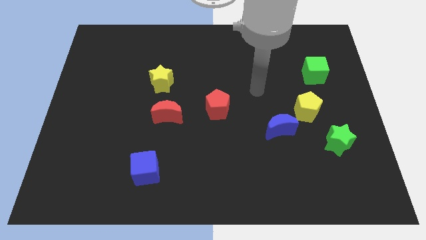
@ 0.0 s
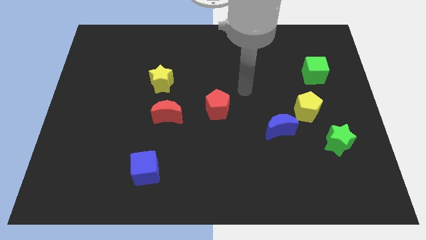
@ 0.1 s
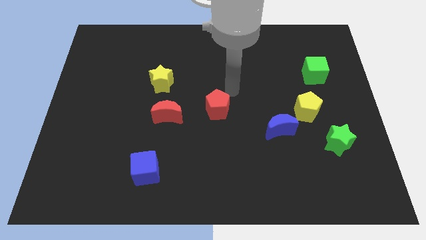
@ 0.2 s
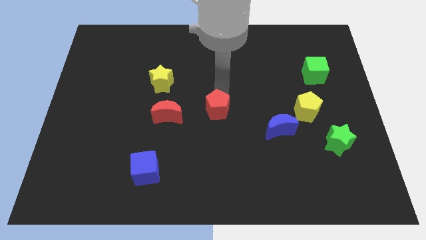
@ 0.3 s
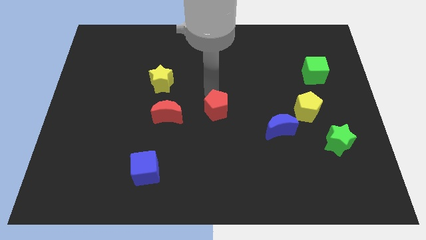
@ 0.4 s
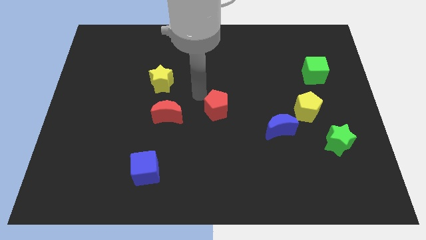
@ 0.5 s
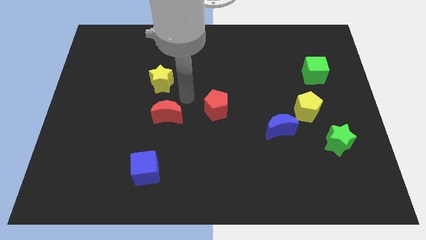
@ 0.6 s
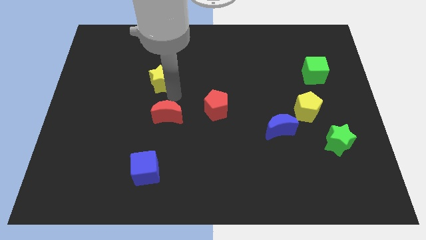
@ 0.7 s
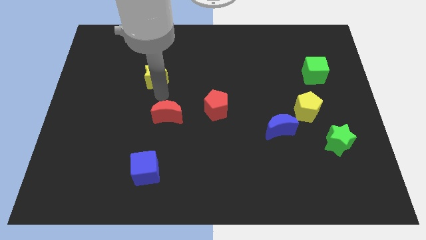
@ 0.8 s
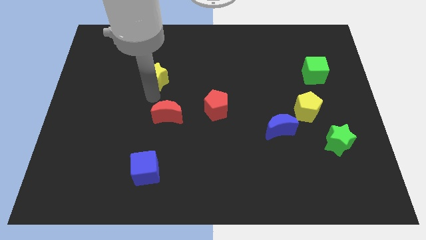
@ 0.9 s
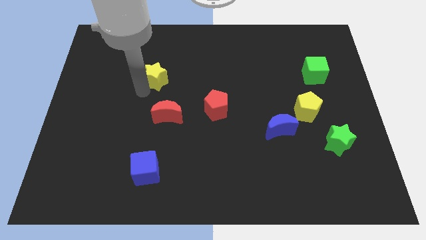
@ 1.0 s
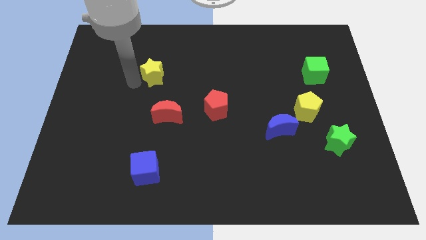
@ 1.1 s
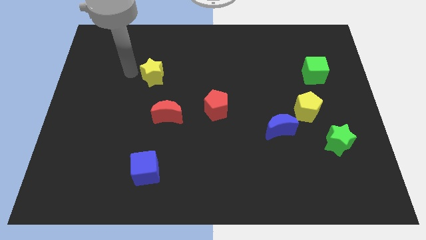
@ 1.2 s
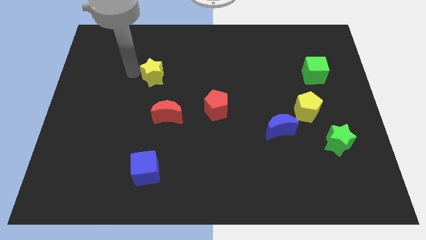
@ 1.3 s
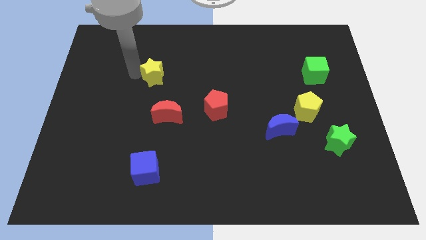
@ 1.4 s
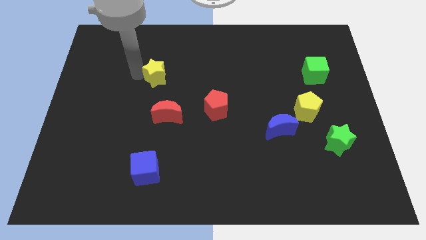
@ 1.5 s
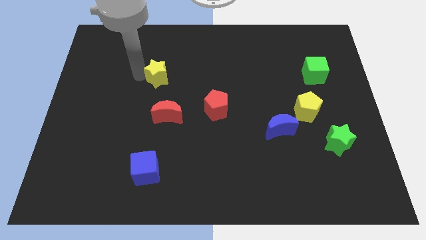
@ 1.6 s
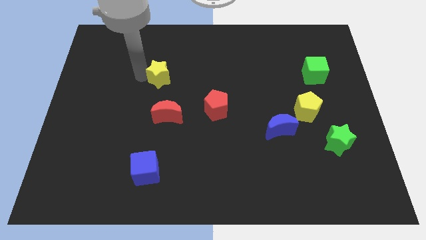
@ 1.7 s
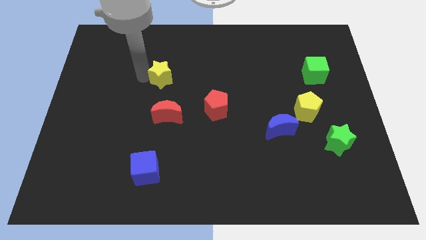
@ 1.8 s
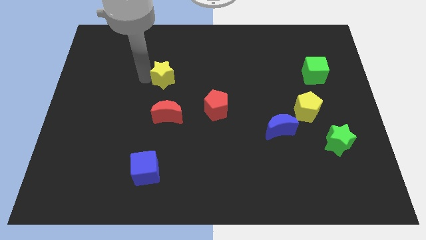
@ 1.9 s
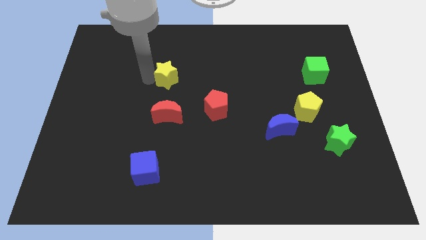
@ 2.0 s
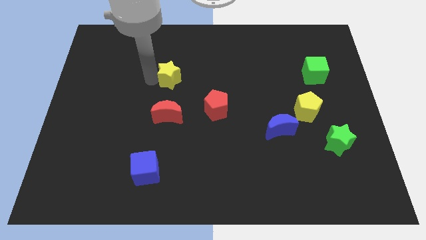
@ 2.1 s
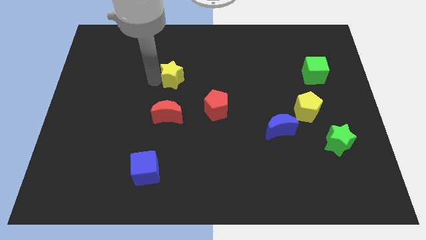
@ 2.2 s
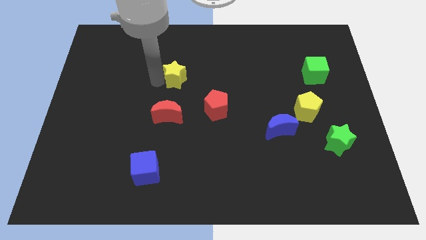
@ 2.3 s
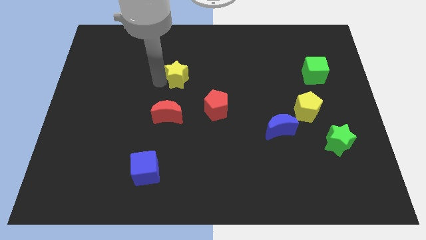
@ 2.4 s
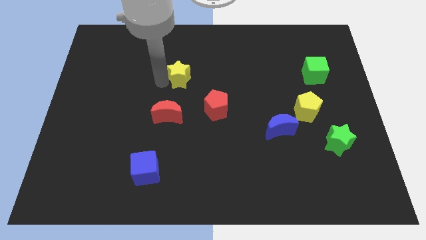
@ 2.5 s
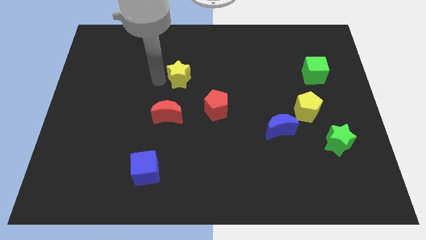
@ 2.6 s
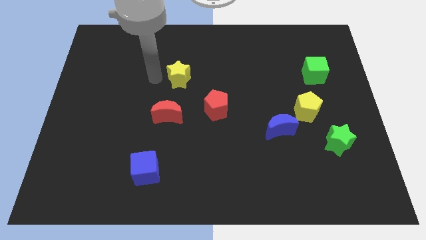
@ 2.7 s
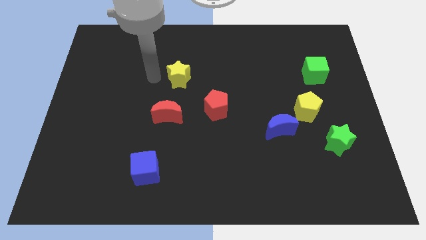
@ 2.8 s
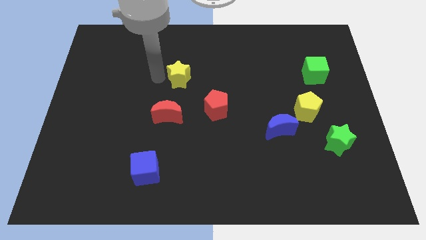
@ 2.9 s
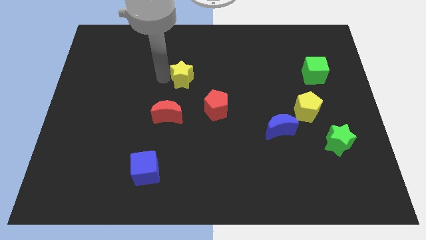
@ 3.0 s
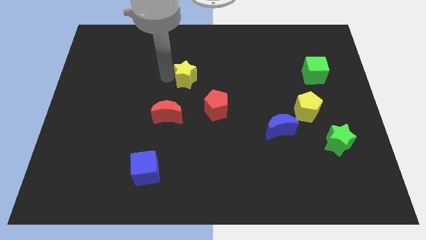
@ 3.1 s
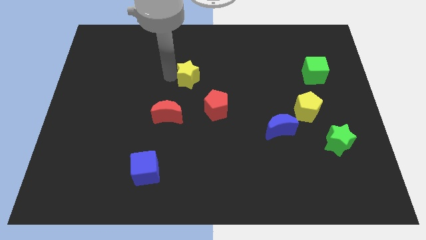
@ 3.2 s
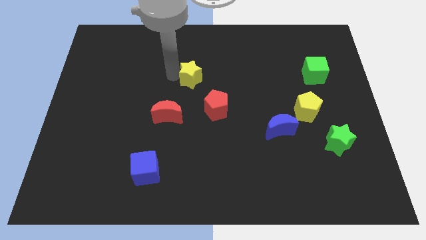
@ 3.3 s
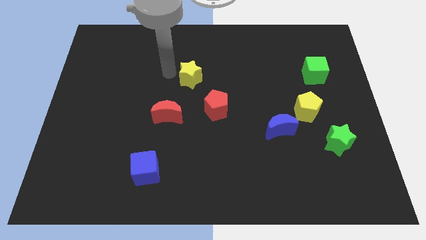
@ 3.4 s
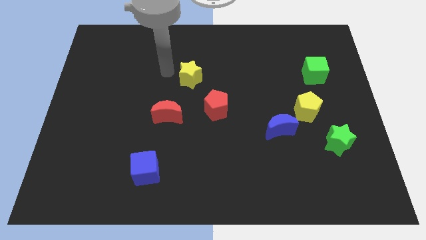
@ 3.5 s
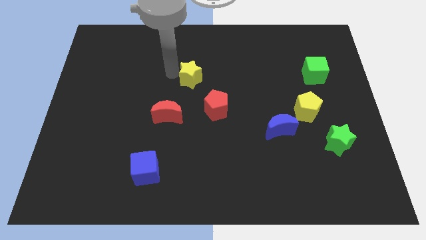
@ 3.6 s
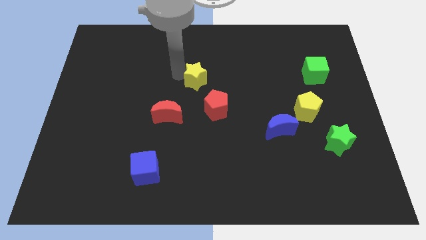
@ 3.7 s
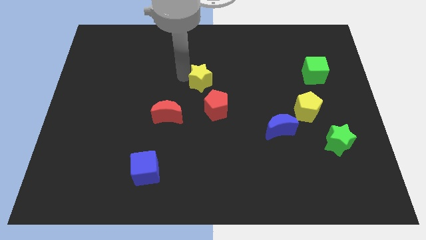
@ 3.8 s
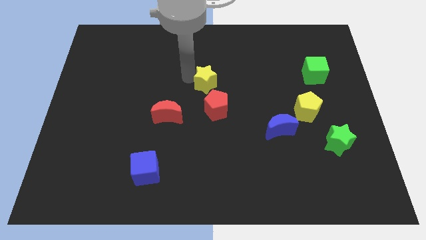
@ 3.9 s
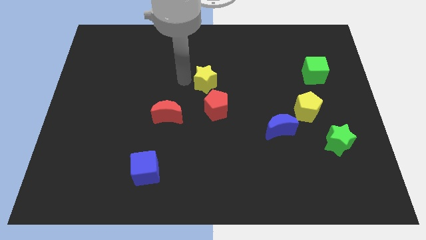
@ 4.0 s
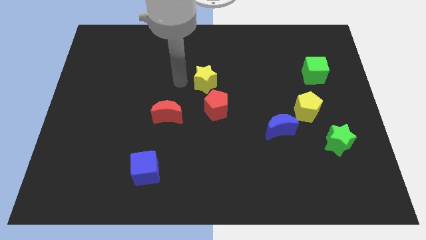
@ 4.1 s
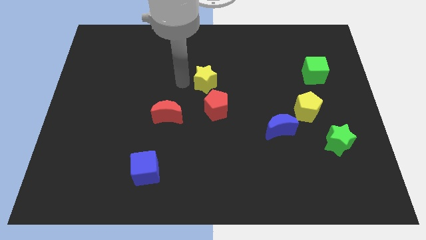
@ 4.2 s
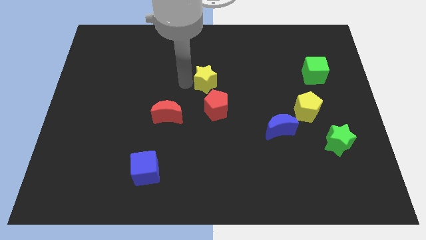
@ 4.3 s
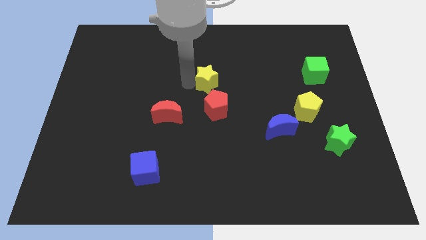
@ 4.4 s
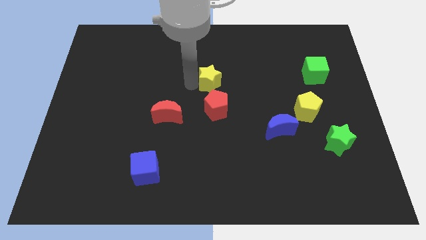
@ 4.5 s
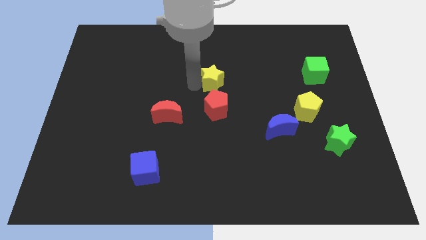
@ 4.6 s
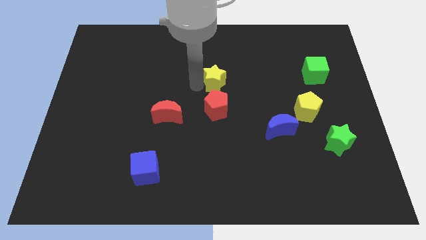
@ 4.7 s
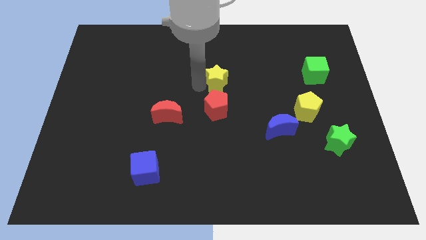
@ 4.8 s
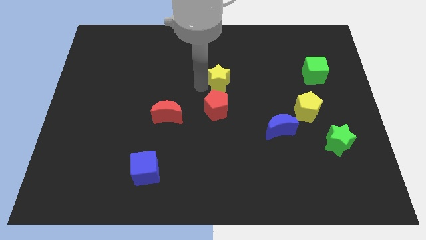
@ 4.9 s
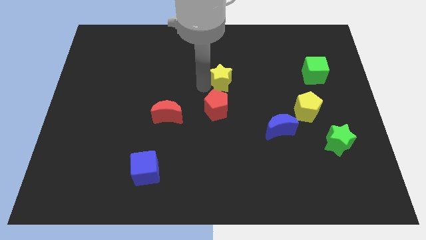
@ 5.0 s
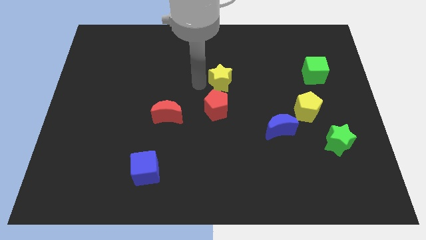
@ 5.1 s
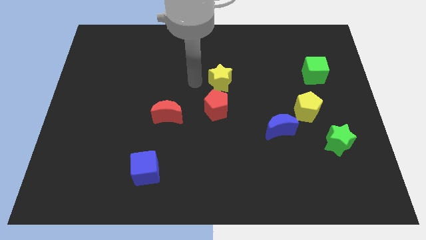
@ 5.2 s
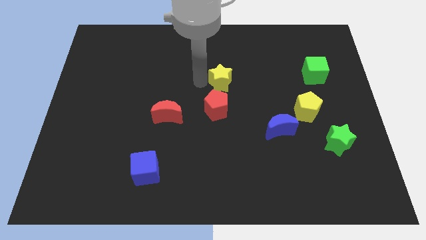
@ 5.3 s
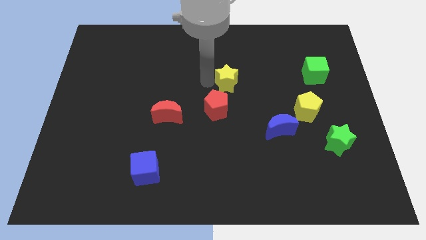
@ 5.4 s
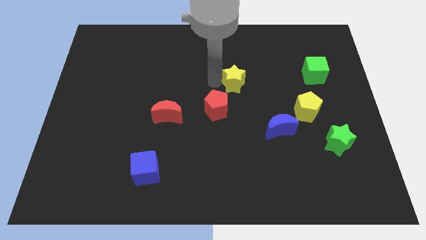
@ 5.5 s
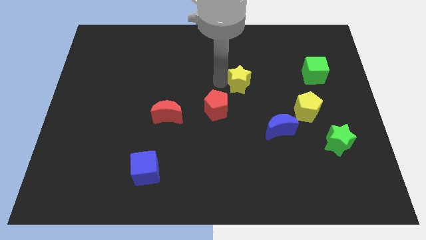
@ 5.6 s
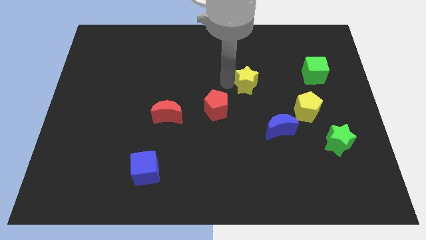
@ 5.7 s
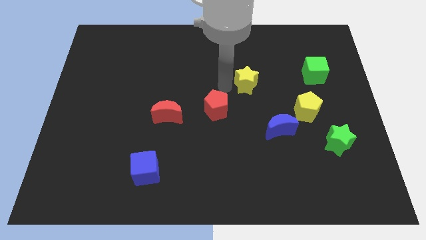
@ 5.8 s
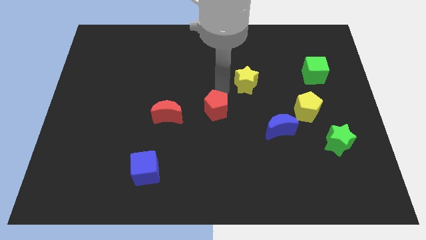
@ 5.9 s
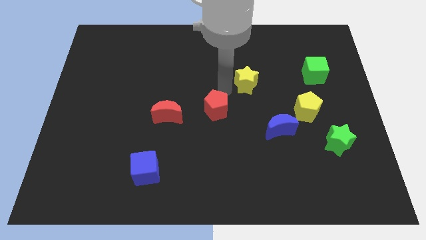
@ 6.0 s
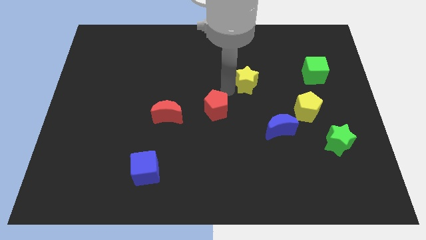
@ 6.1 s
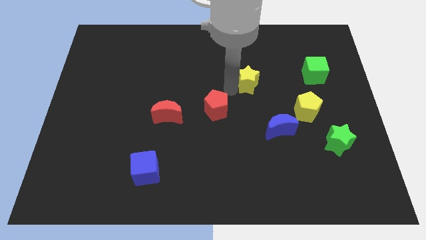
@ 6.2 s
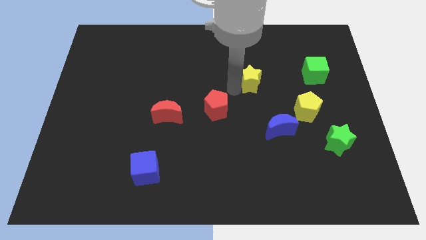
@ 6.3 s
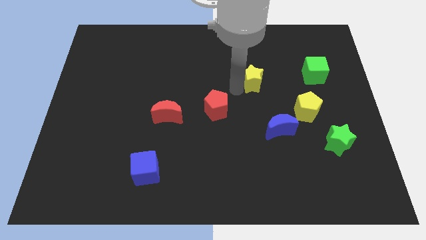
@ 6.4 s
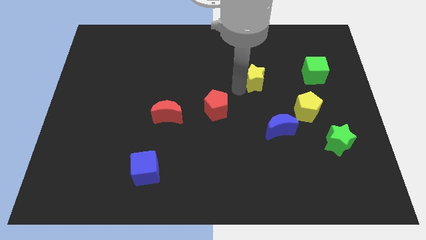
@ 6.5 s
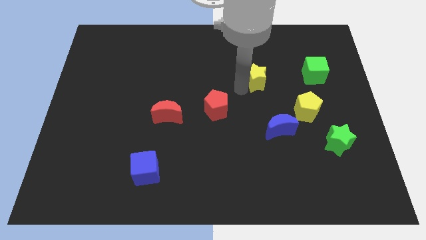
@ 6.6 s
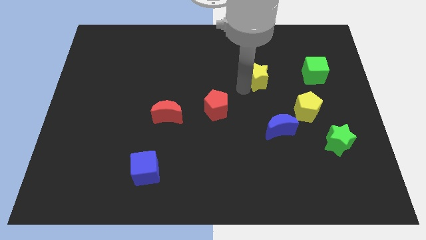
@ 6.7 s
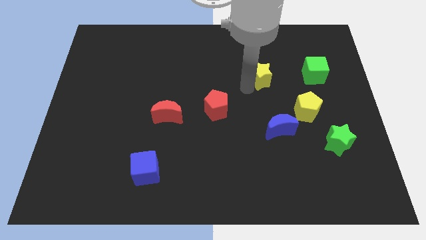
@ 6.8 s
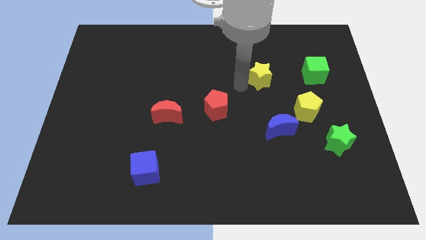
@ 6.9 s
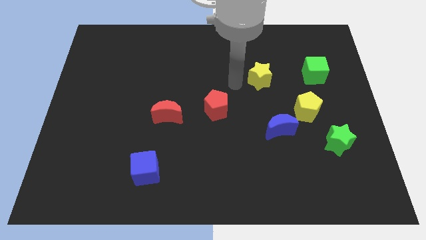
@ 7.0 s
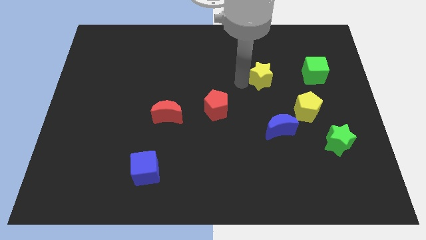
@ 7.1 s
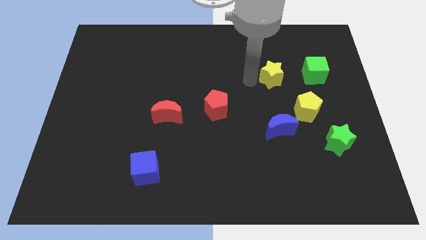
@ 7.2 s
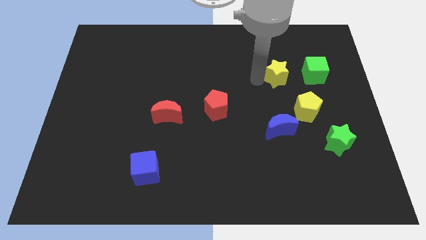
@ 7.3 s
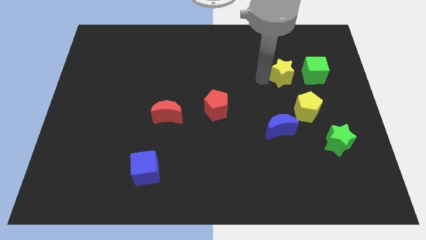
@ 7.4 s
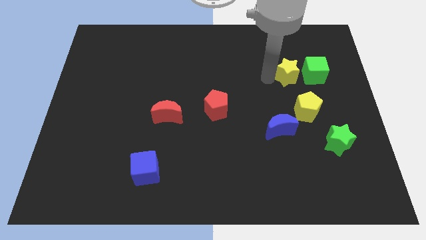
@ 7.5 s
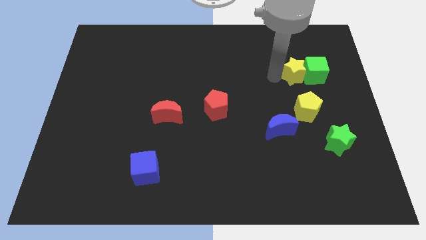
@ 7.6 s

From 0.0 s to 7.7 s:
push the yellow star towards the green cube

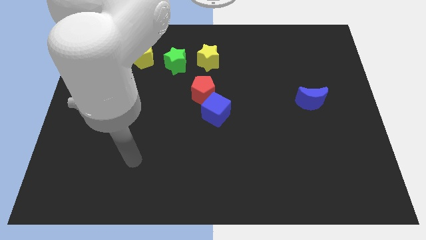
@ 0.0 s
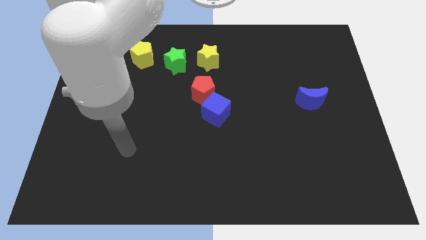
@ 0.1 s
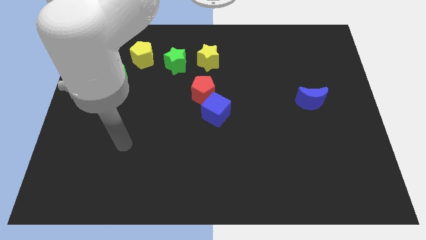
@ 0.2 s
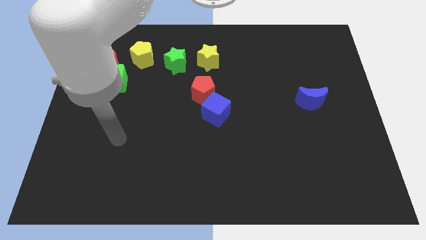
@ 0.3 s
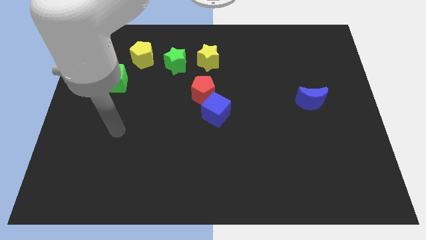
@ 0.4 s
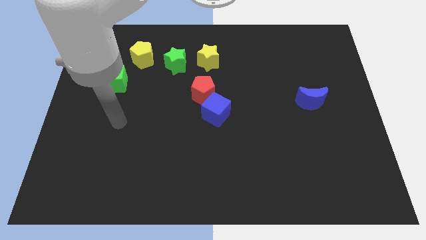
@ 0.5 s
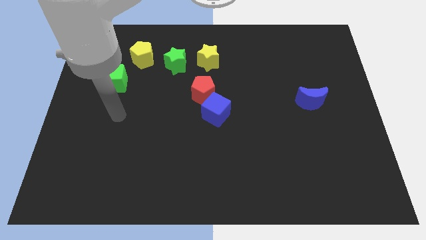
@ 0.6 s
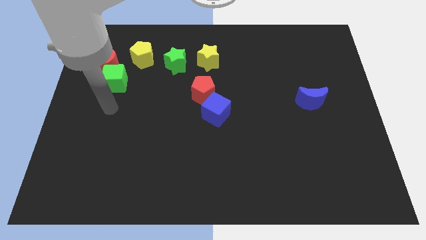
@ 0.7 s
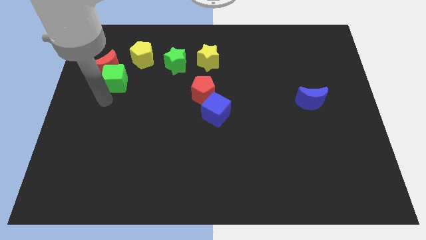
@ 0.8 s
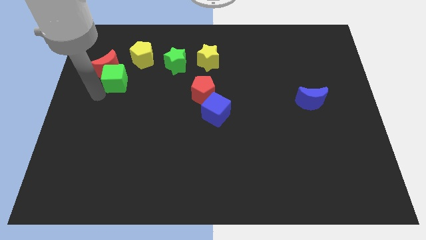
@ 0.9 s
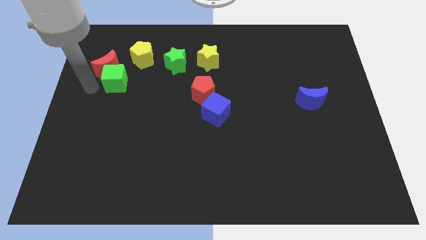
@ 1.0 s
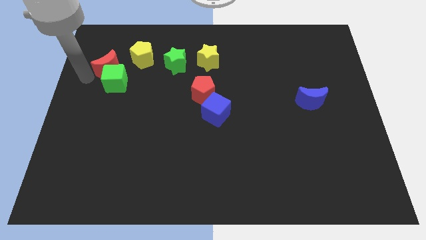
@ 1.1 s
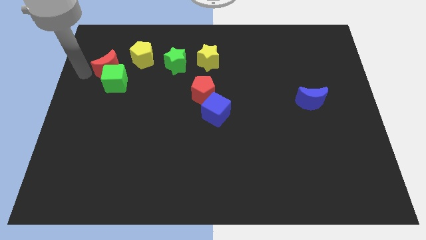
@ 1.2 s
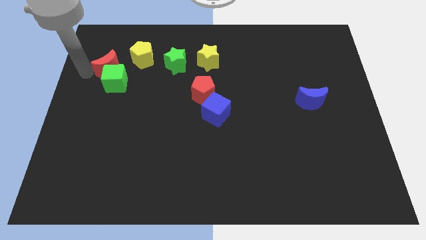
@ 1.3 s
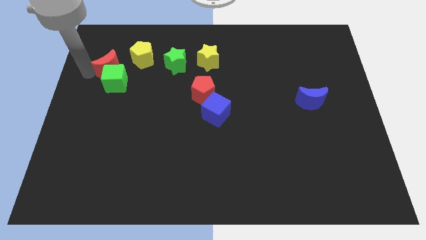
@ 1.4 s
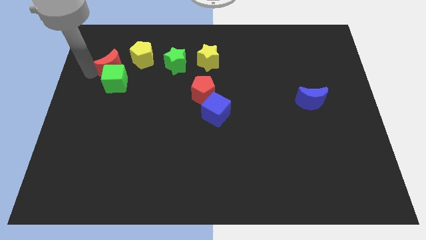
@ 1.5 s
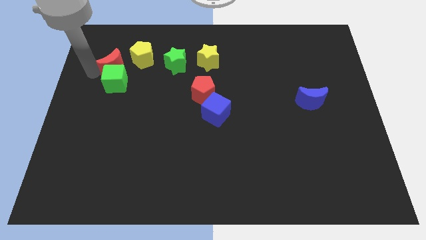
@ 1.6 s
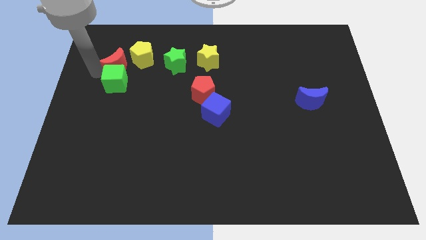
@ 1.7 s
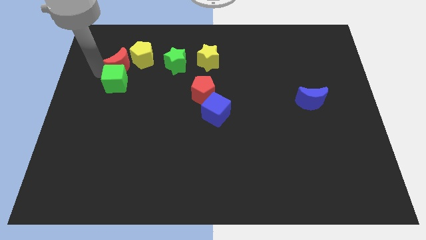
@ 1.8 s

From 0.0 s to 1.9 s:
put the red moon towards the yellow pentagon
